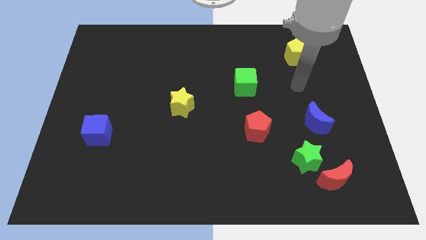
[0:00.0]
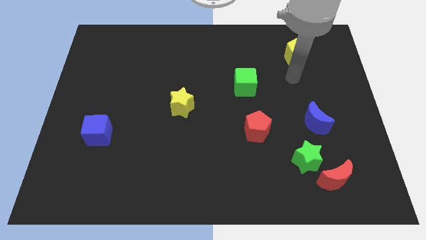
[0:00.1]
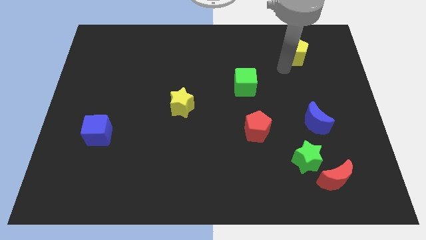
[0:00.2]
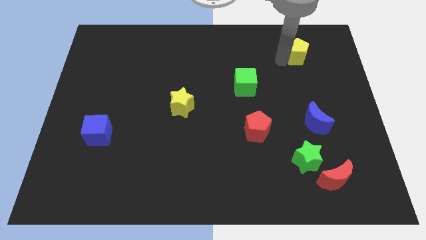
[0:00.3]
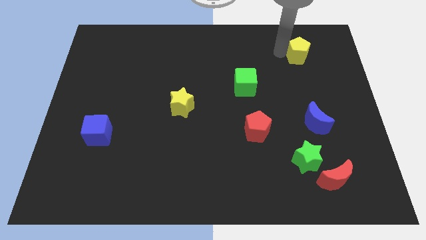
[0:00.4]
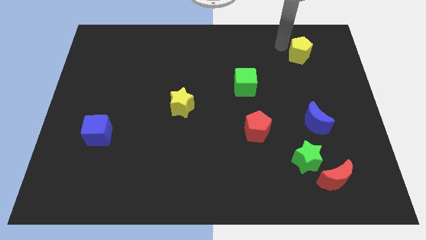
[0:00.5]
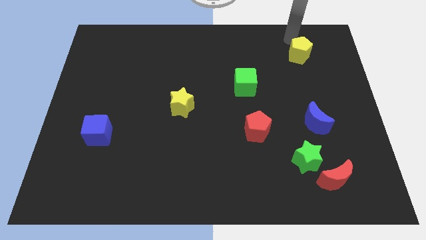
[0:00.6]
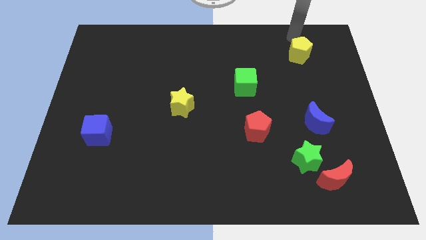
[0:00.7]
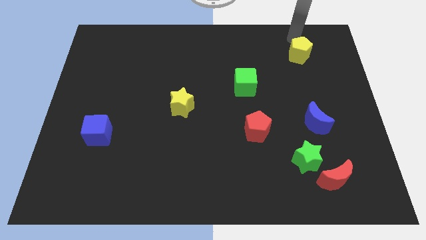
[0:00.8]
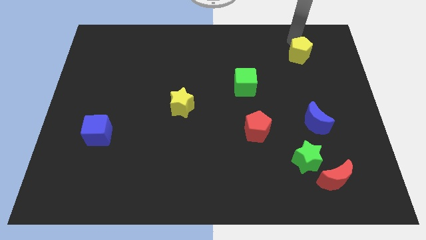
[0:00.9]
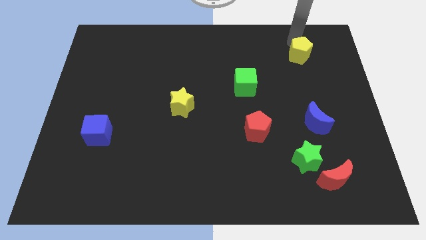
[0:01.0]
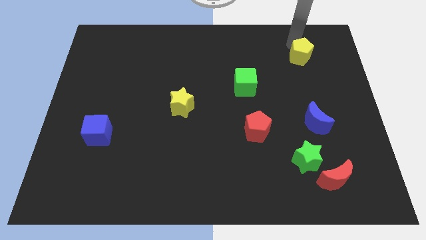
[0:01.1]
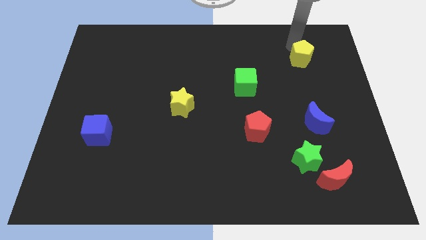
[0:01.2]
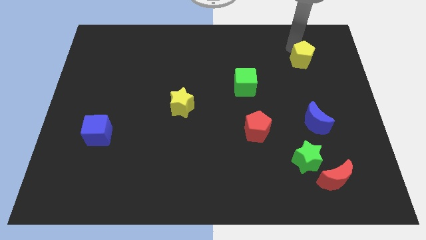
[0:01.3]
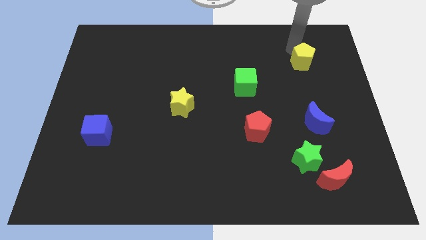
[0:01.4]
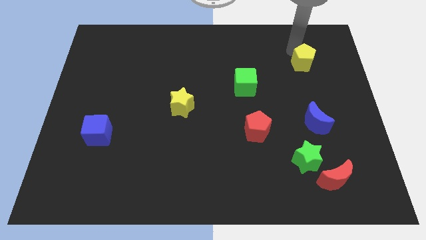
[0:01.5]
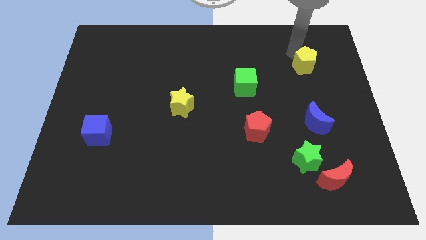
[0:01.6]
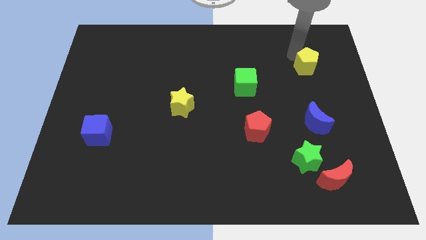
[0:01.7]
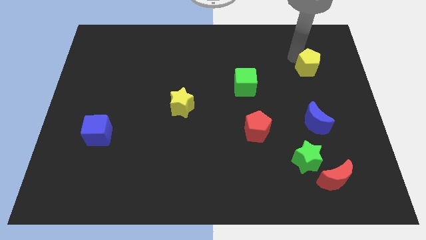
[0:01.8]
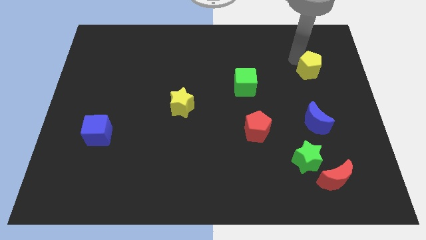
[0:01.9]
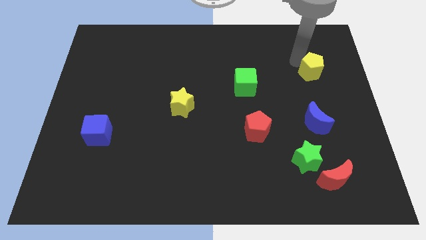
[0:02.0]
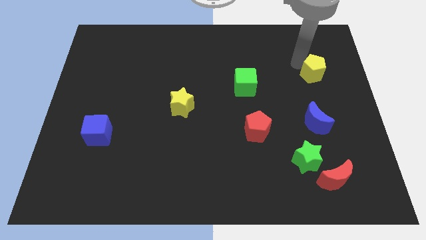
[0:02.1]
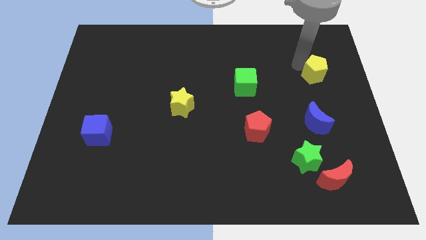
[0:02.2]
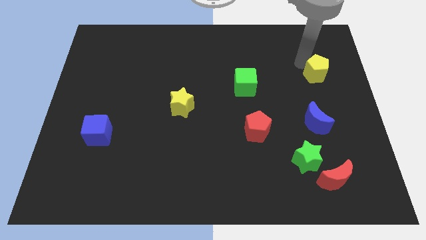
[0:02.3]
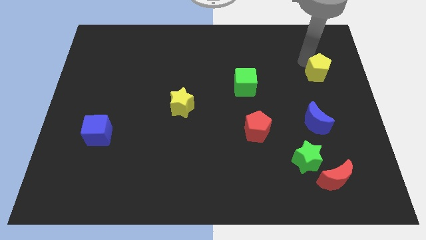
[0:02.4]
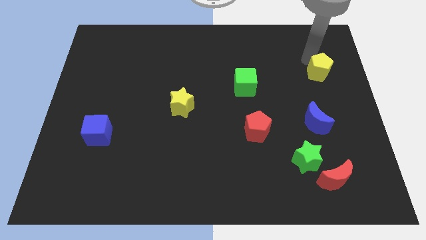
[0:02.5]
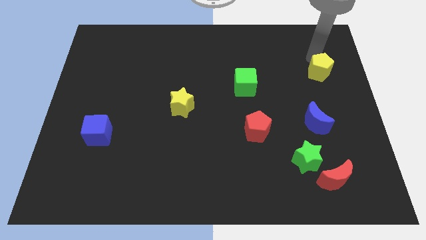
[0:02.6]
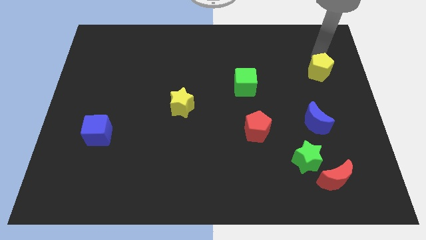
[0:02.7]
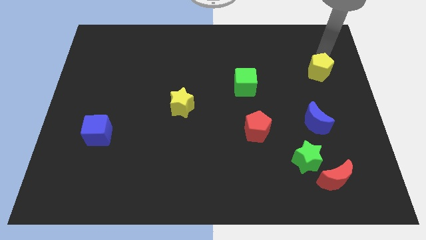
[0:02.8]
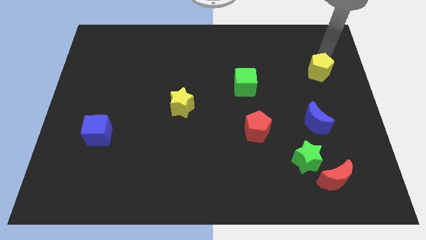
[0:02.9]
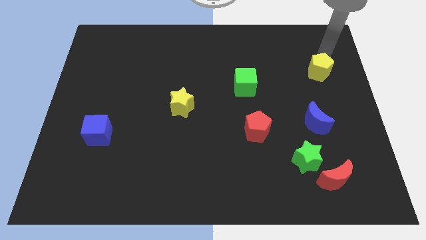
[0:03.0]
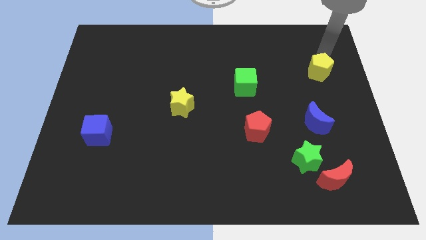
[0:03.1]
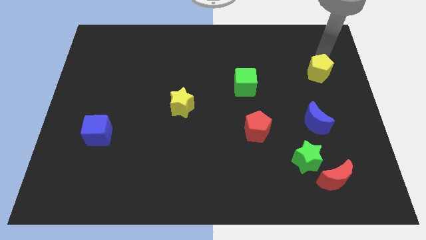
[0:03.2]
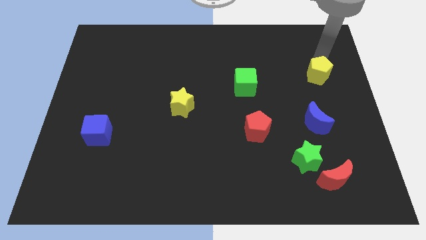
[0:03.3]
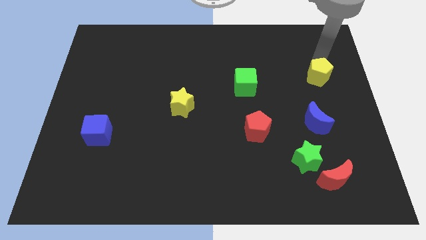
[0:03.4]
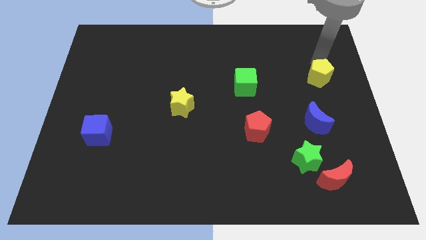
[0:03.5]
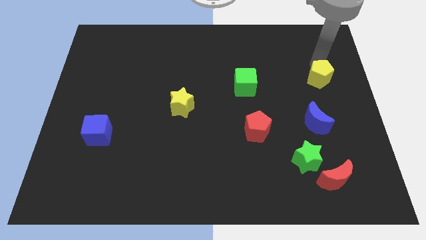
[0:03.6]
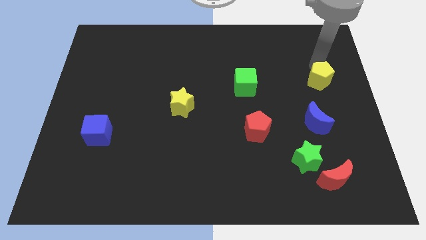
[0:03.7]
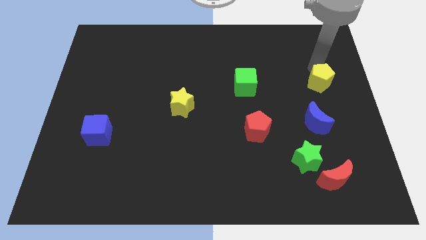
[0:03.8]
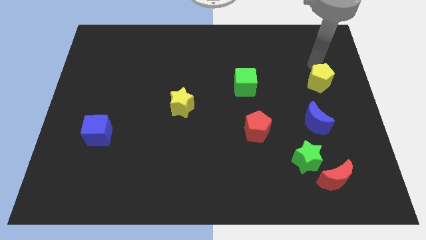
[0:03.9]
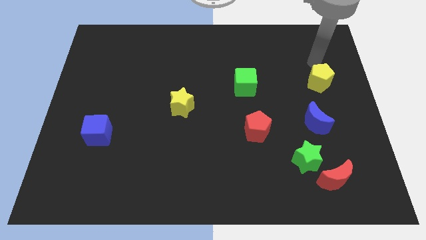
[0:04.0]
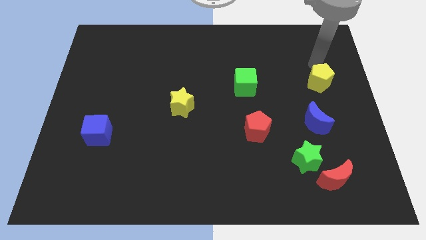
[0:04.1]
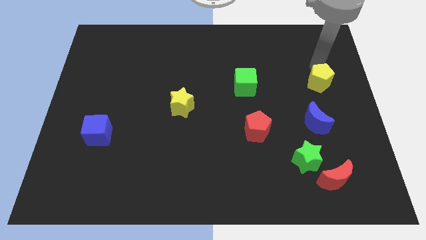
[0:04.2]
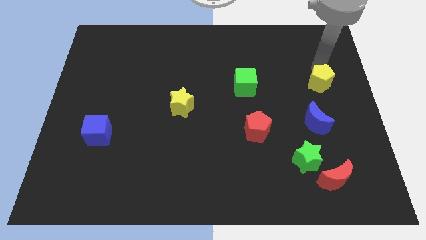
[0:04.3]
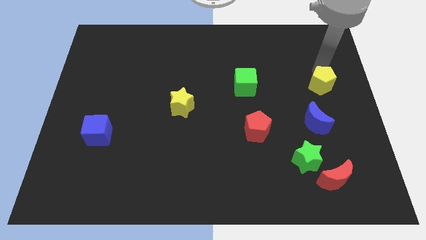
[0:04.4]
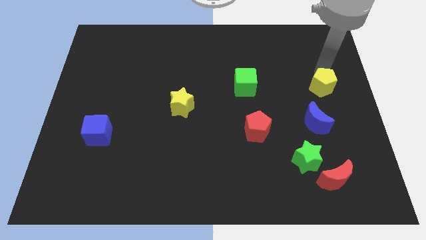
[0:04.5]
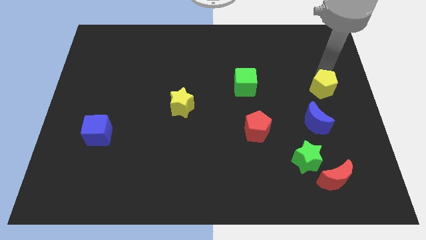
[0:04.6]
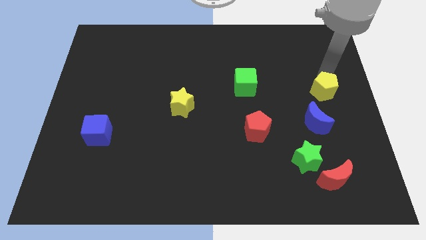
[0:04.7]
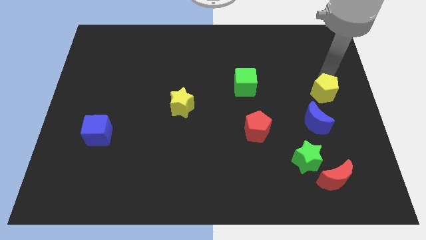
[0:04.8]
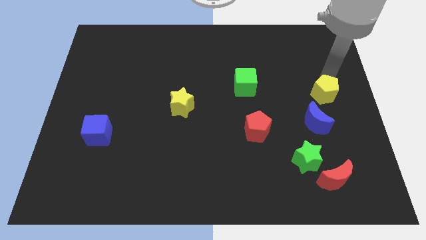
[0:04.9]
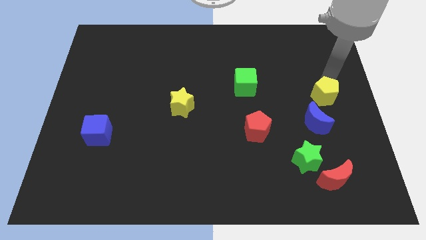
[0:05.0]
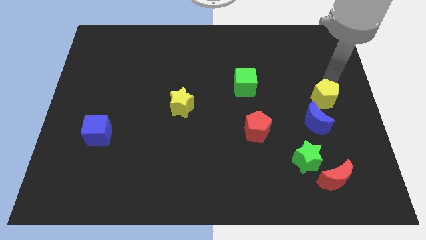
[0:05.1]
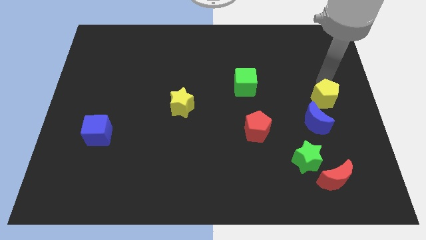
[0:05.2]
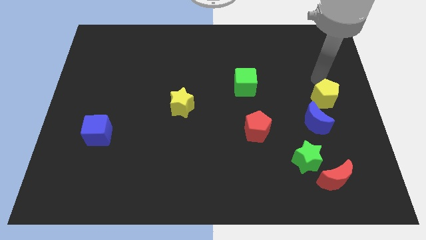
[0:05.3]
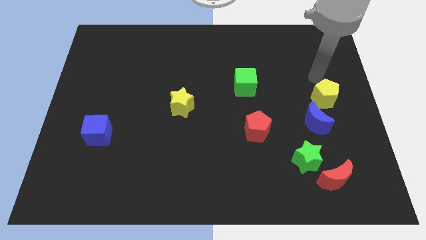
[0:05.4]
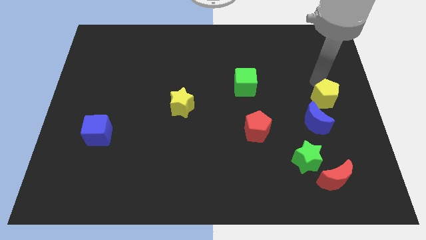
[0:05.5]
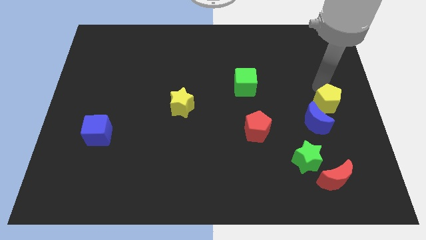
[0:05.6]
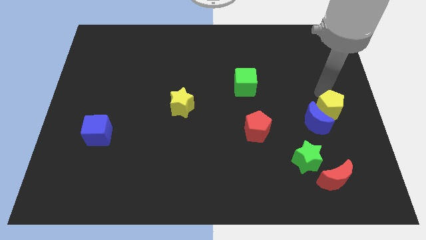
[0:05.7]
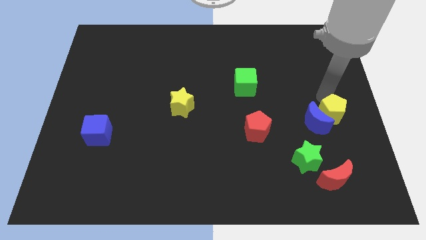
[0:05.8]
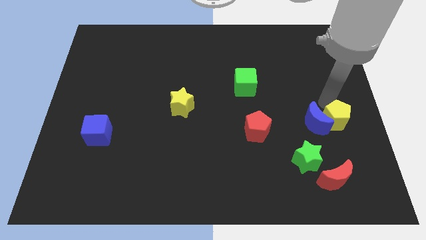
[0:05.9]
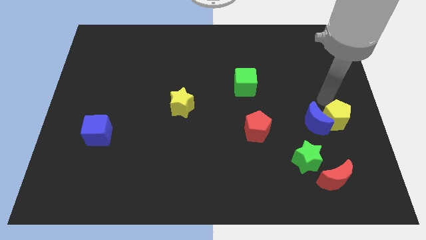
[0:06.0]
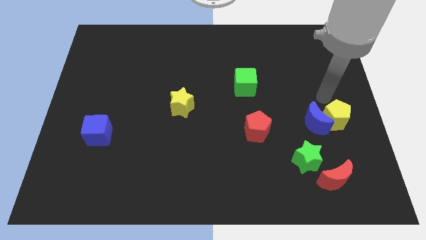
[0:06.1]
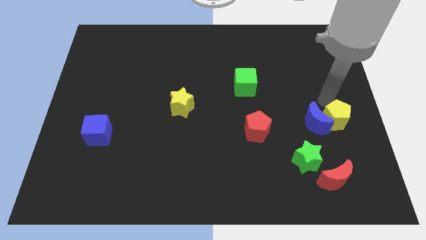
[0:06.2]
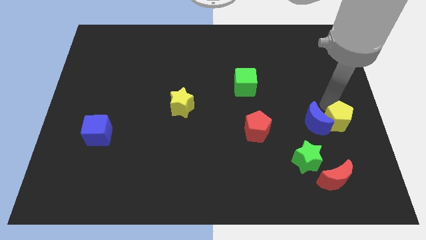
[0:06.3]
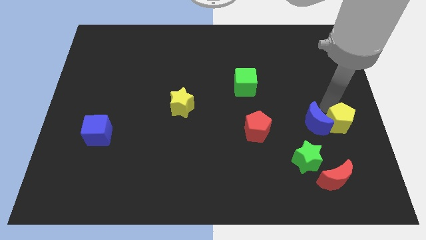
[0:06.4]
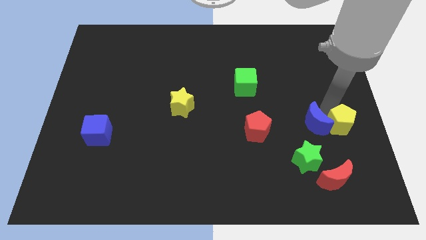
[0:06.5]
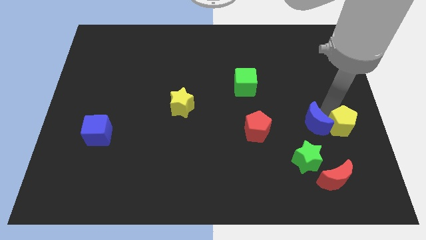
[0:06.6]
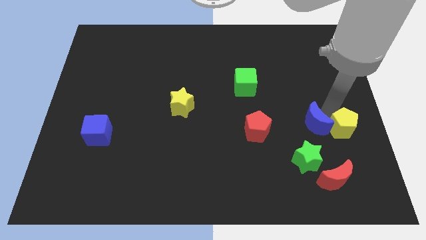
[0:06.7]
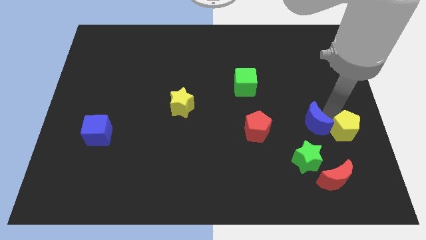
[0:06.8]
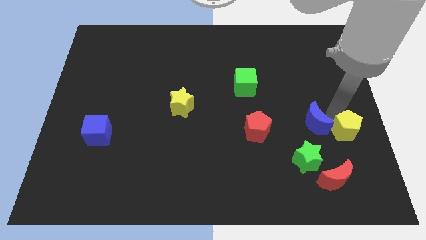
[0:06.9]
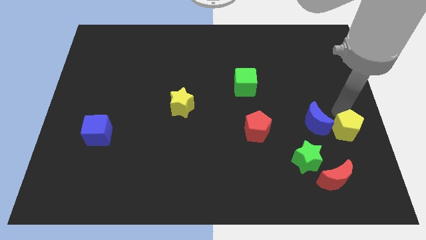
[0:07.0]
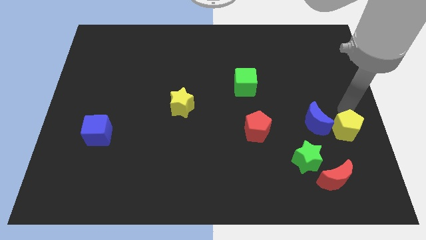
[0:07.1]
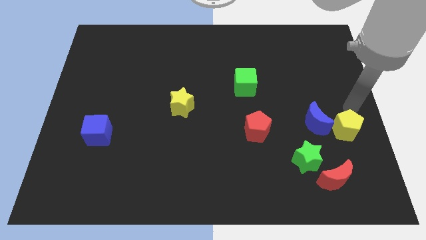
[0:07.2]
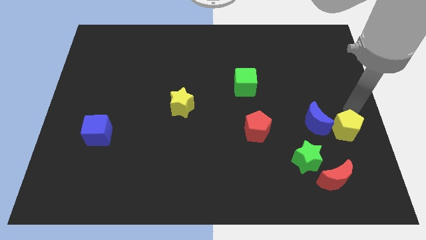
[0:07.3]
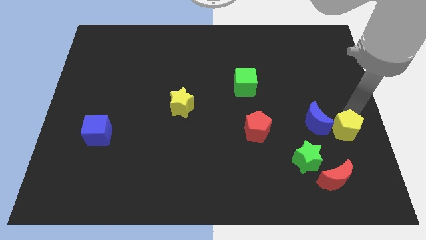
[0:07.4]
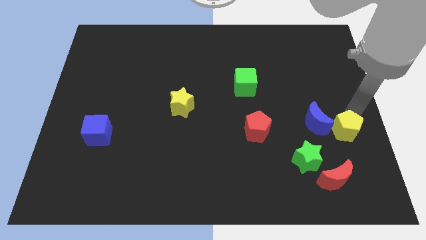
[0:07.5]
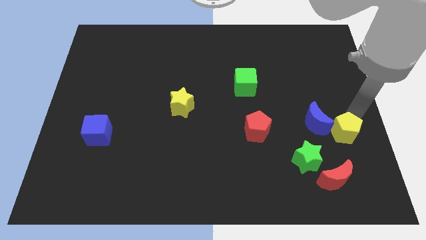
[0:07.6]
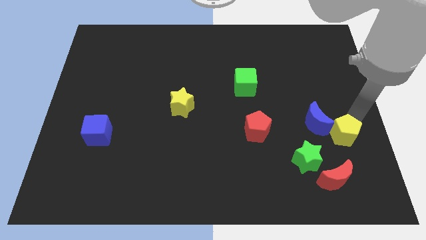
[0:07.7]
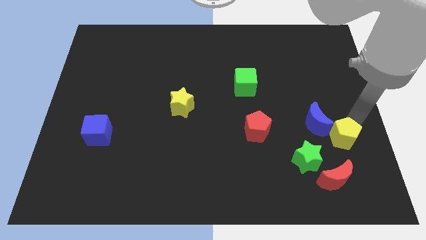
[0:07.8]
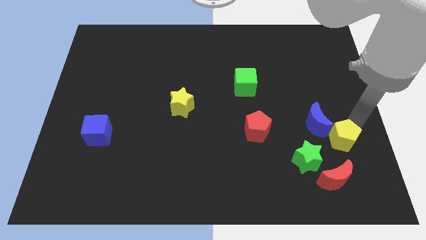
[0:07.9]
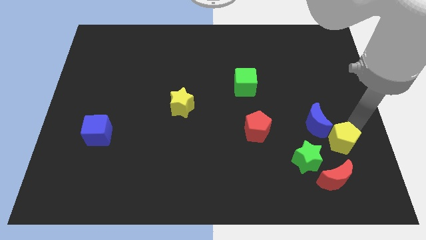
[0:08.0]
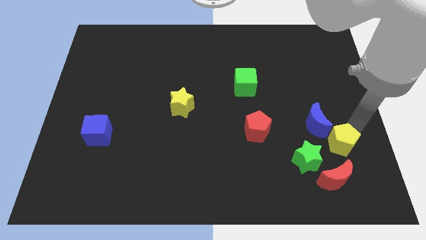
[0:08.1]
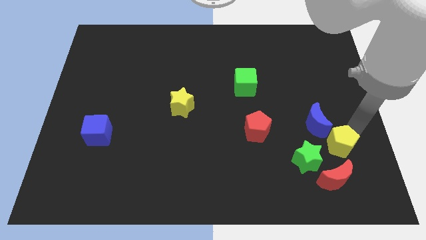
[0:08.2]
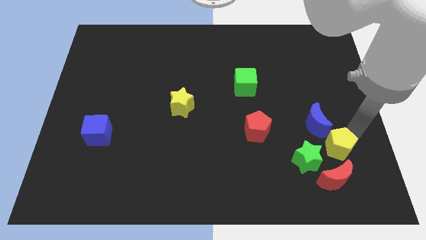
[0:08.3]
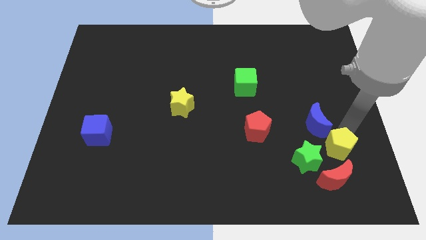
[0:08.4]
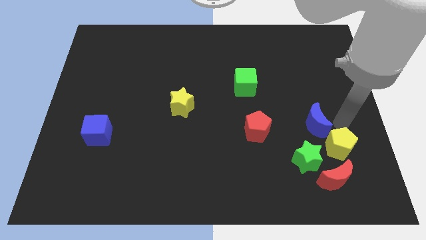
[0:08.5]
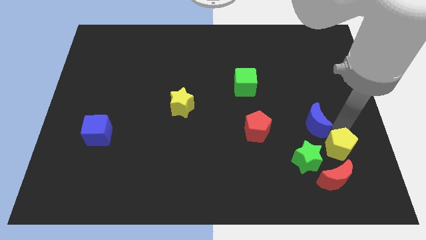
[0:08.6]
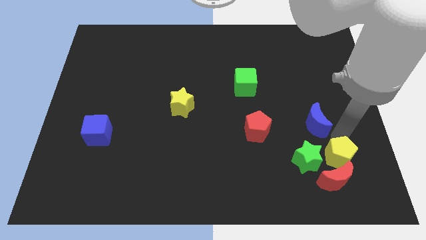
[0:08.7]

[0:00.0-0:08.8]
put the yellow pentagon close to the red moon
